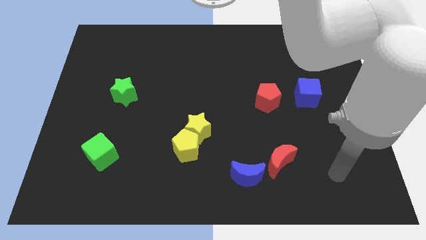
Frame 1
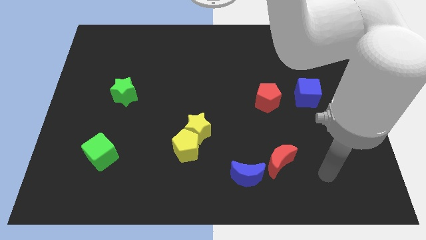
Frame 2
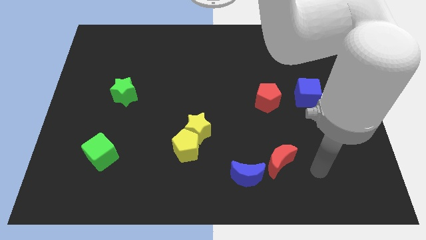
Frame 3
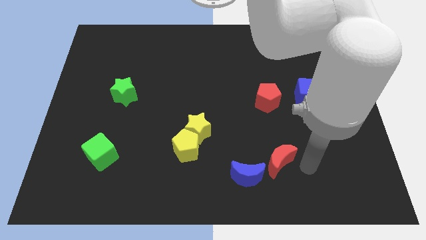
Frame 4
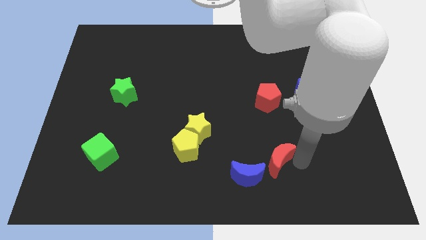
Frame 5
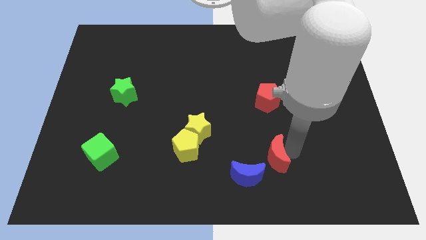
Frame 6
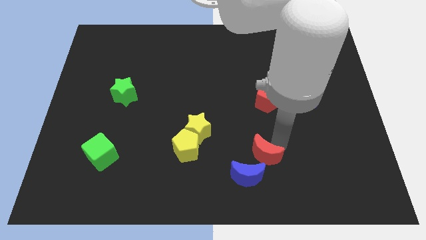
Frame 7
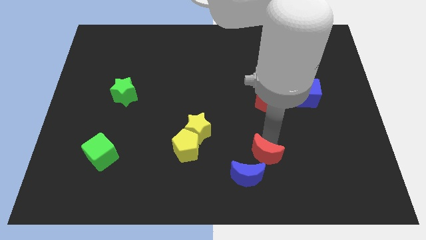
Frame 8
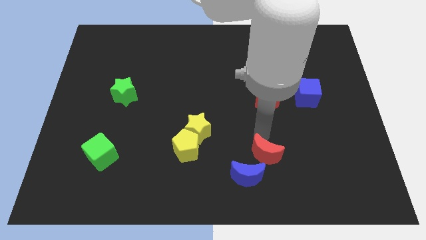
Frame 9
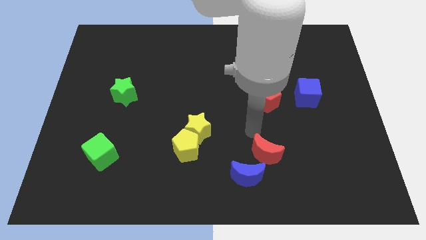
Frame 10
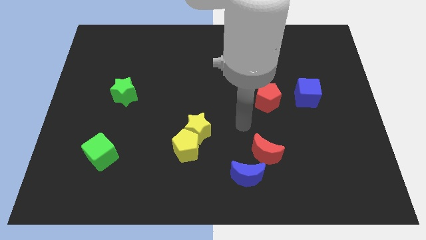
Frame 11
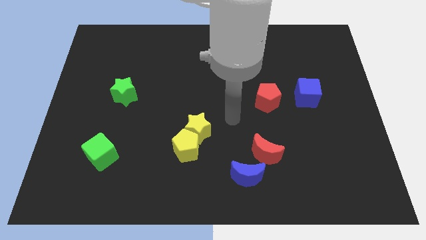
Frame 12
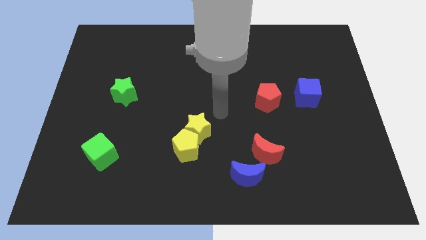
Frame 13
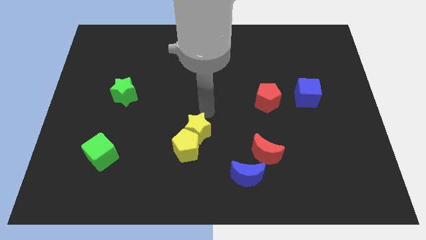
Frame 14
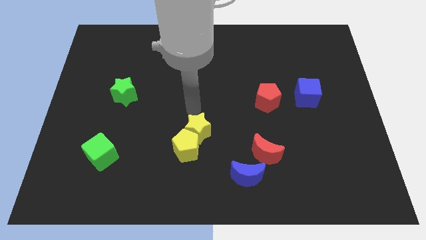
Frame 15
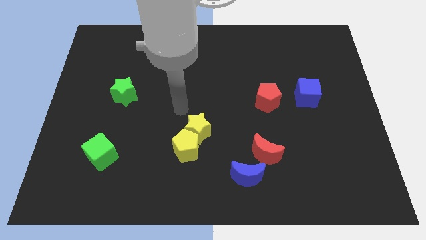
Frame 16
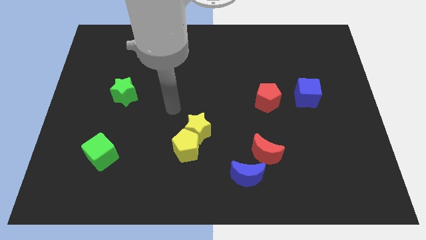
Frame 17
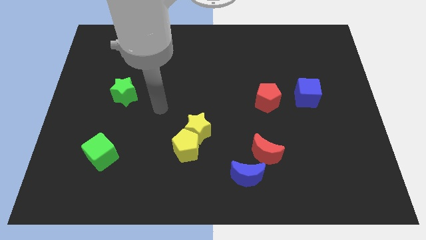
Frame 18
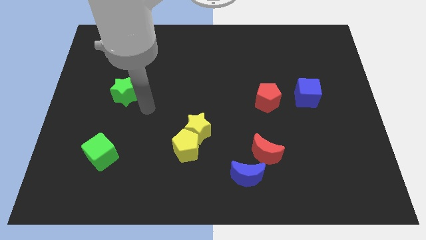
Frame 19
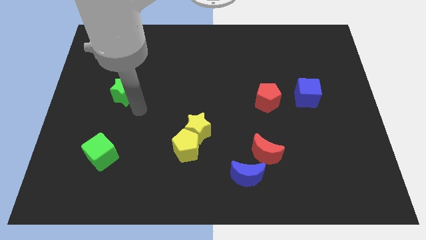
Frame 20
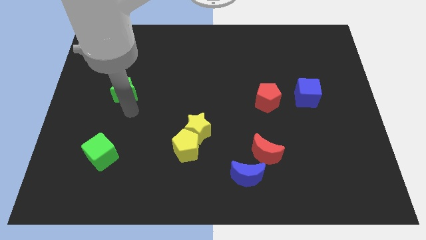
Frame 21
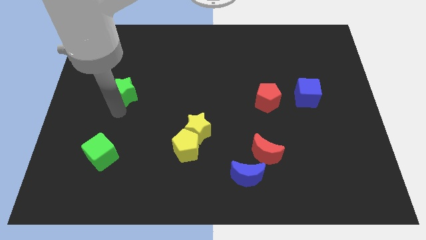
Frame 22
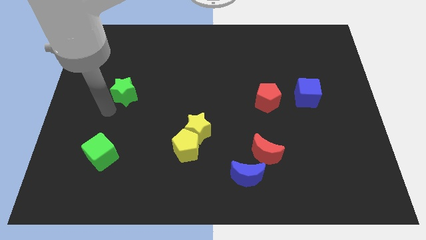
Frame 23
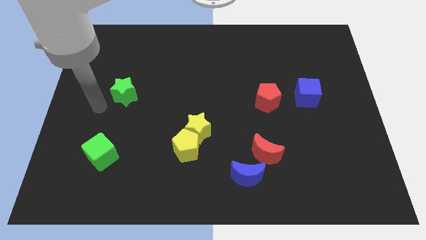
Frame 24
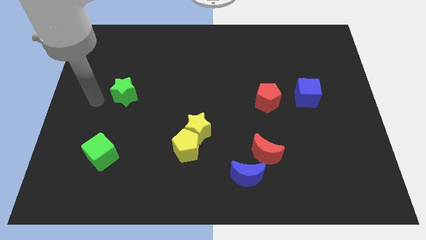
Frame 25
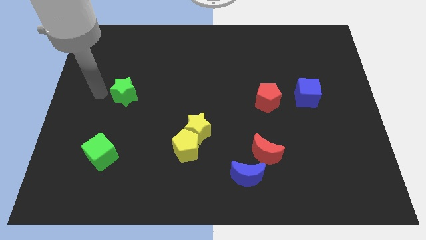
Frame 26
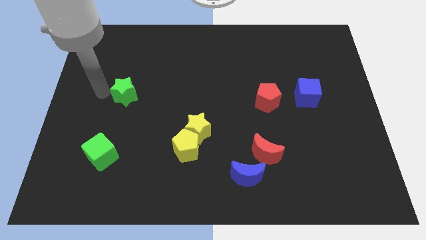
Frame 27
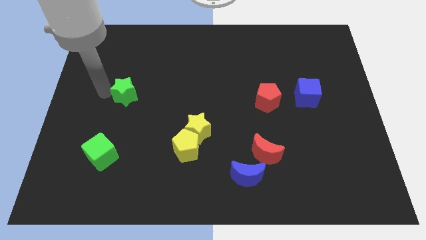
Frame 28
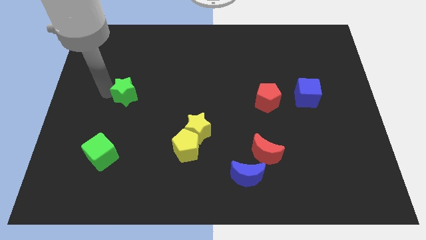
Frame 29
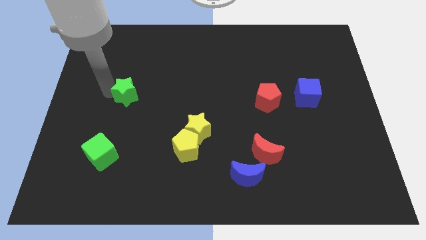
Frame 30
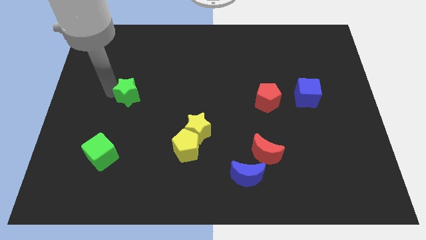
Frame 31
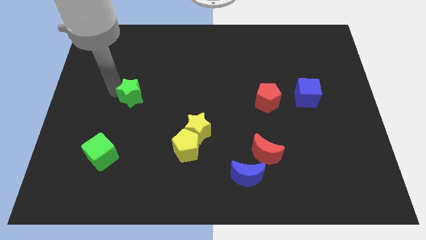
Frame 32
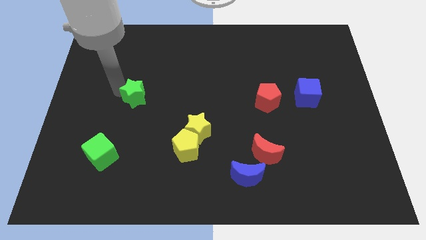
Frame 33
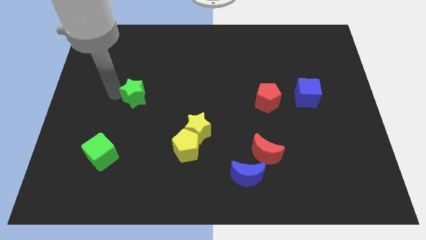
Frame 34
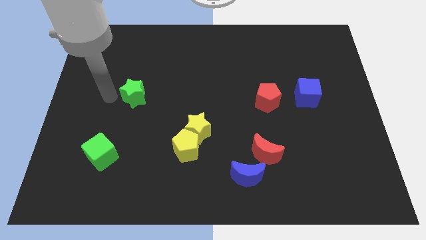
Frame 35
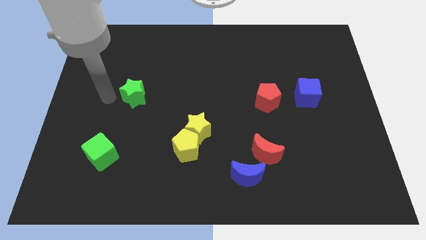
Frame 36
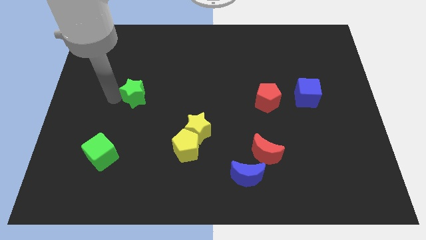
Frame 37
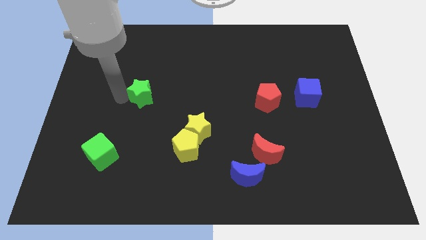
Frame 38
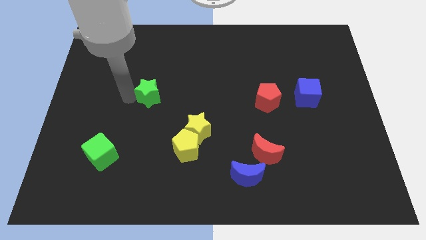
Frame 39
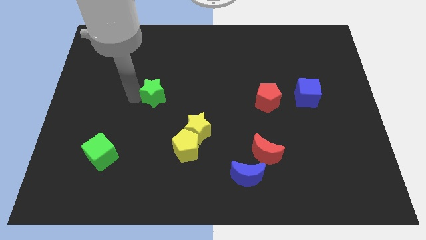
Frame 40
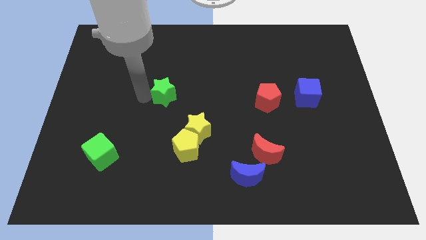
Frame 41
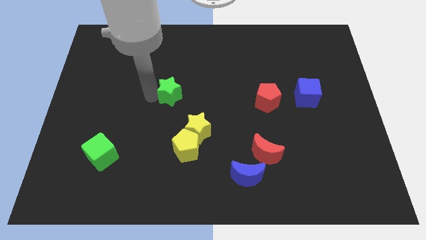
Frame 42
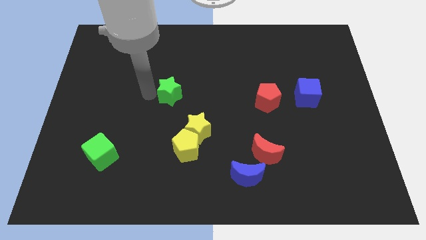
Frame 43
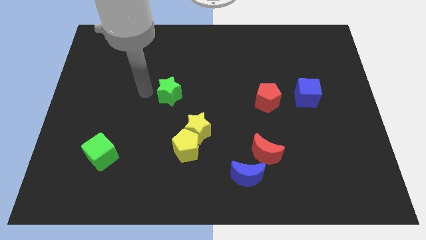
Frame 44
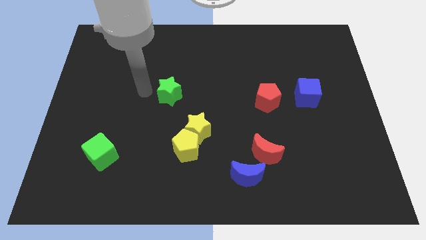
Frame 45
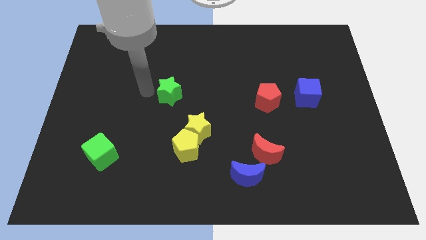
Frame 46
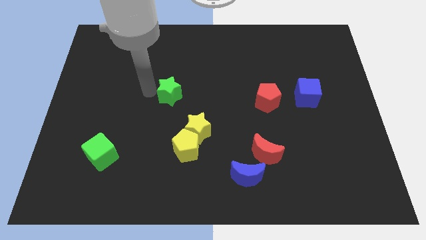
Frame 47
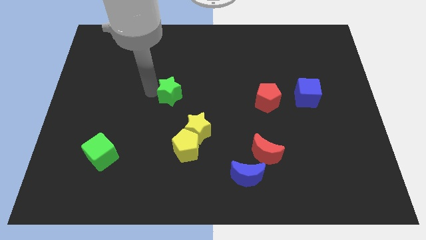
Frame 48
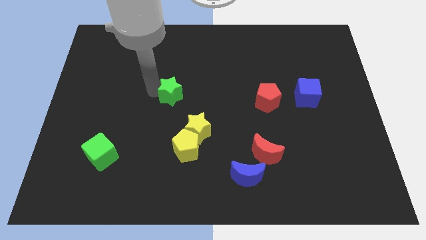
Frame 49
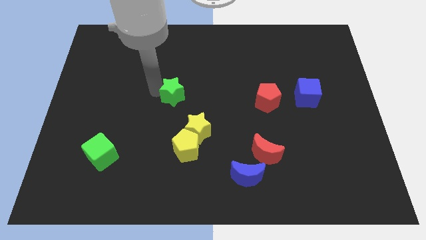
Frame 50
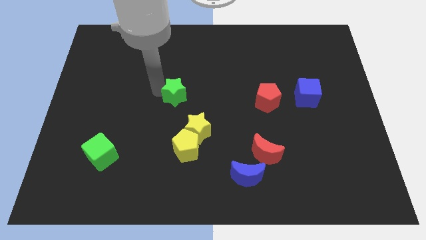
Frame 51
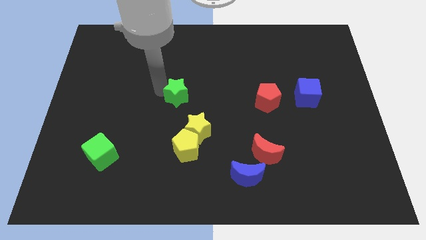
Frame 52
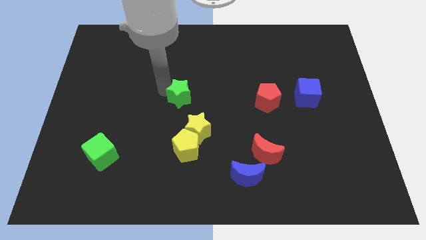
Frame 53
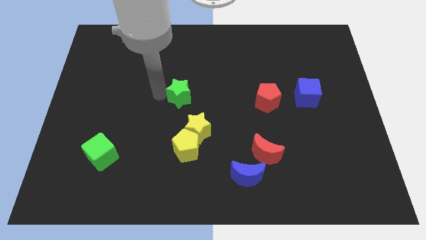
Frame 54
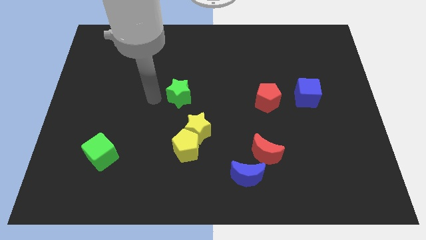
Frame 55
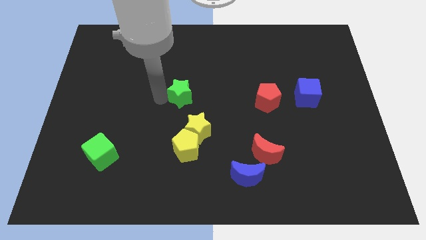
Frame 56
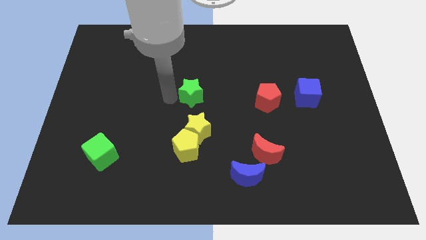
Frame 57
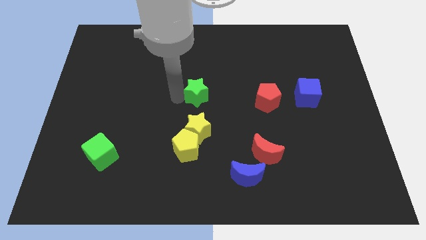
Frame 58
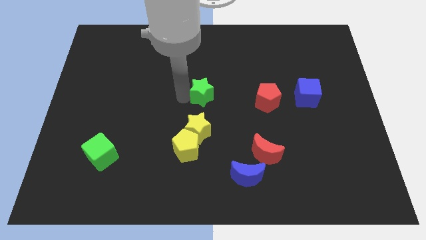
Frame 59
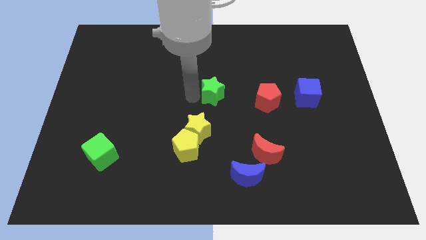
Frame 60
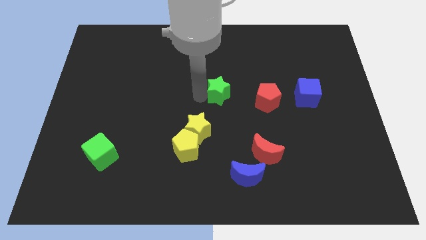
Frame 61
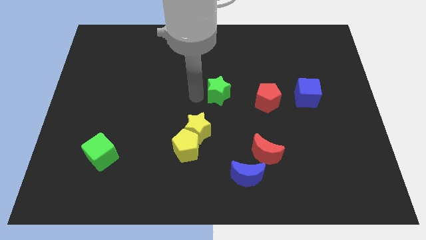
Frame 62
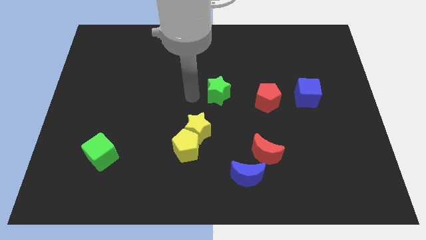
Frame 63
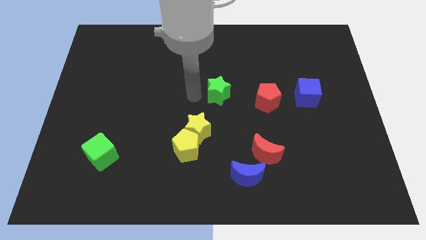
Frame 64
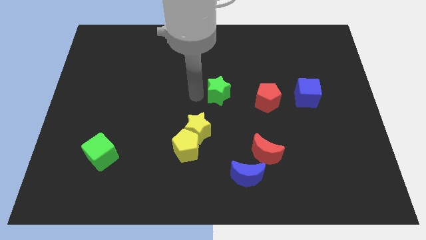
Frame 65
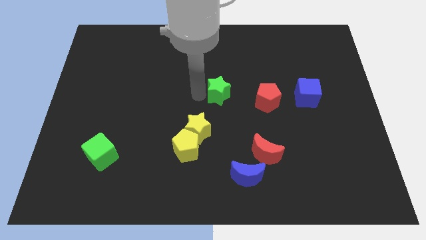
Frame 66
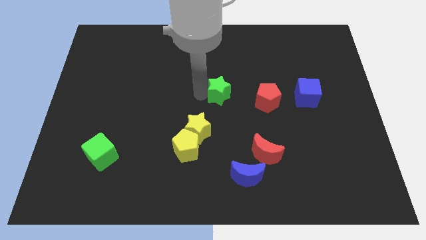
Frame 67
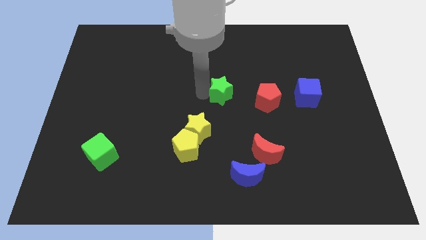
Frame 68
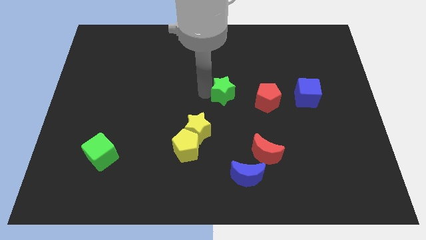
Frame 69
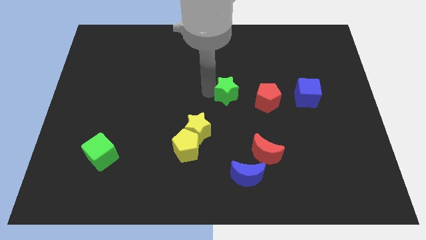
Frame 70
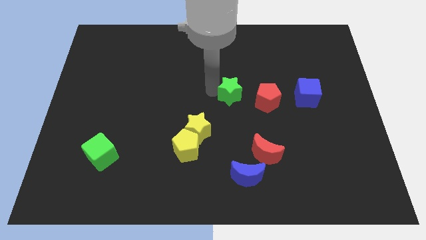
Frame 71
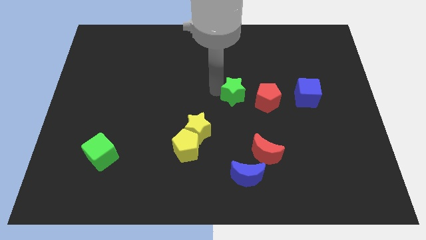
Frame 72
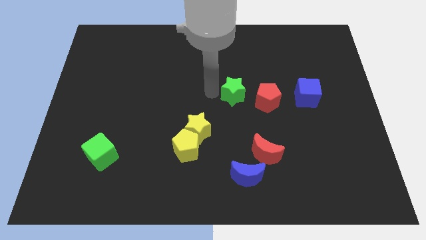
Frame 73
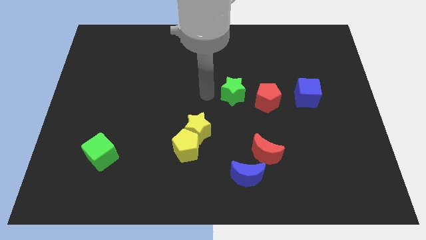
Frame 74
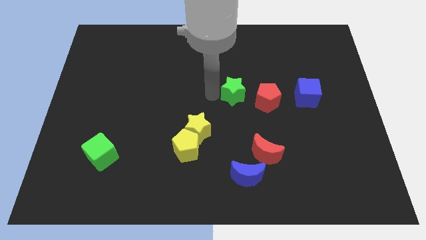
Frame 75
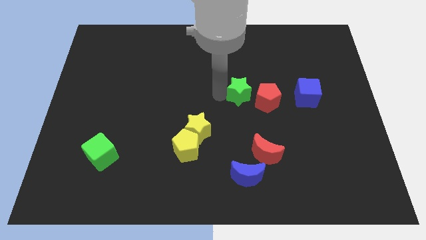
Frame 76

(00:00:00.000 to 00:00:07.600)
put the green star to the left of the blue cube
